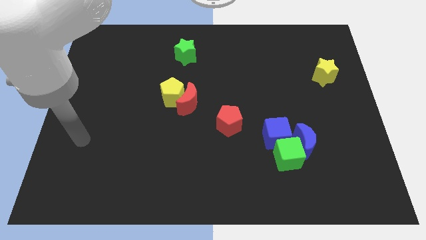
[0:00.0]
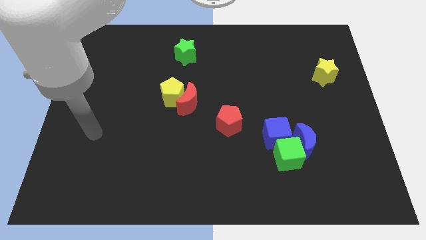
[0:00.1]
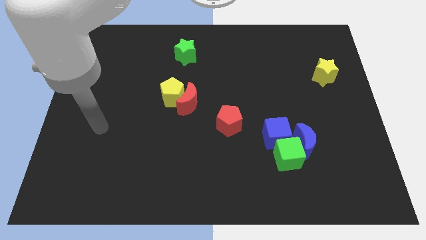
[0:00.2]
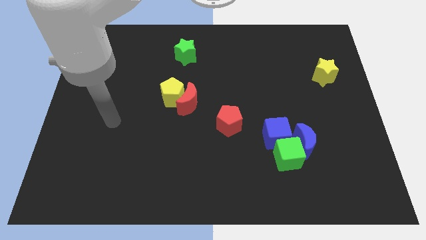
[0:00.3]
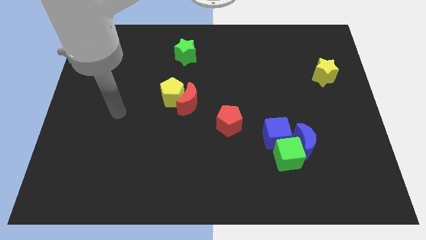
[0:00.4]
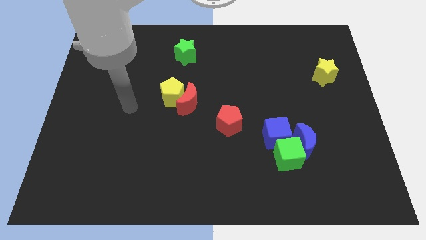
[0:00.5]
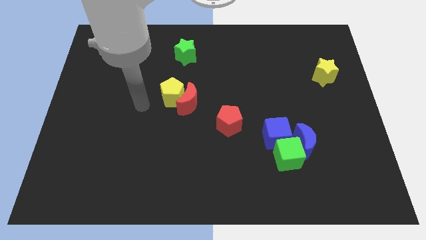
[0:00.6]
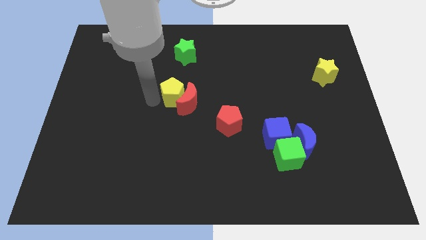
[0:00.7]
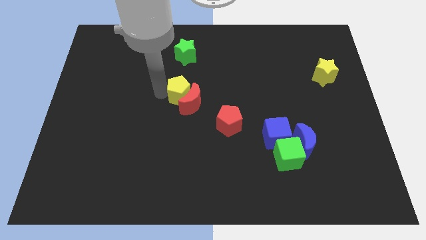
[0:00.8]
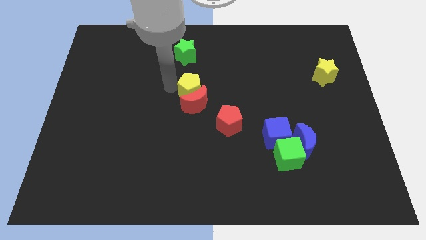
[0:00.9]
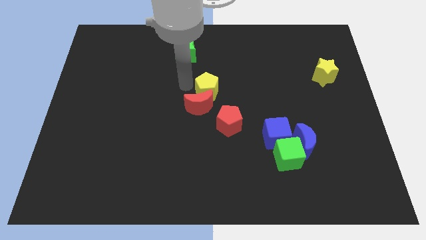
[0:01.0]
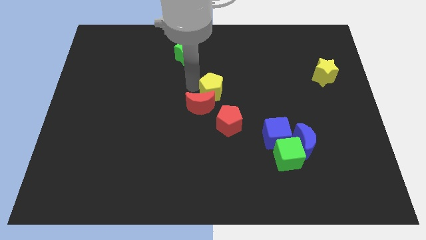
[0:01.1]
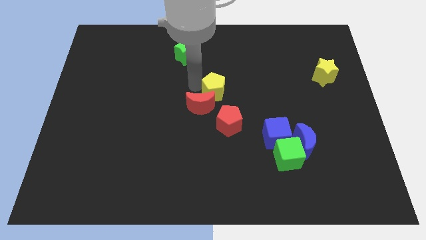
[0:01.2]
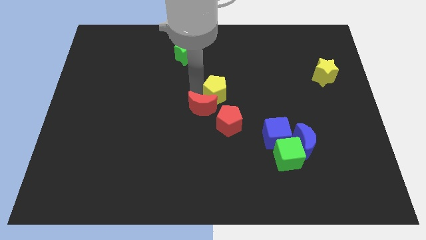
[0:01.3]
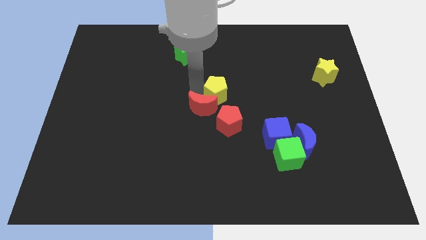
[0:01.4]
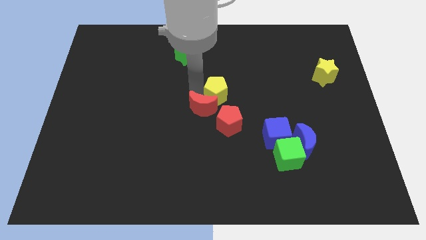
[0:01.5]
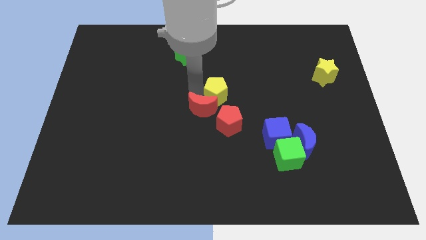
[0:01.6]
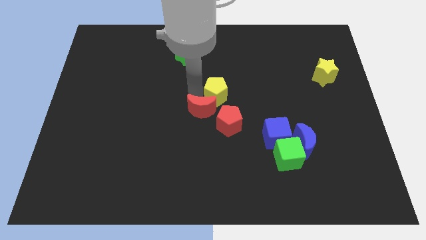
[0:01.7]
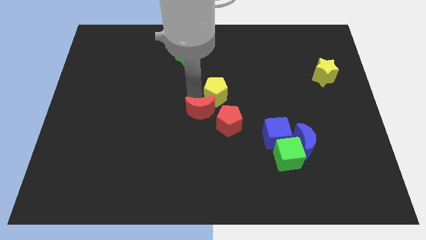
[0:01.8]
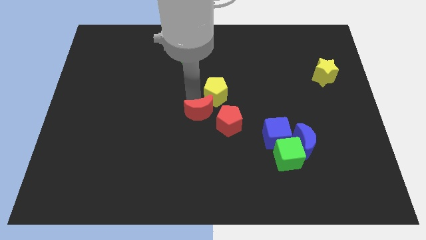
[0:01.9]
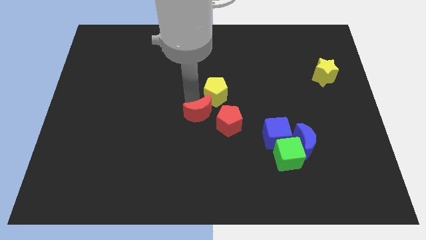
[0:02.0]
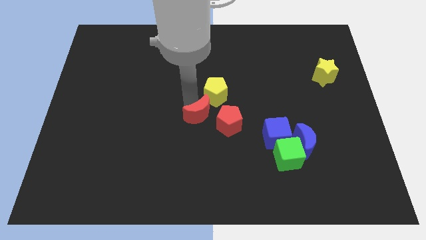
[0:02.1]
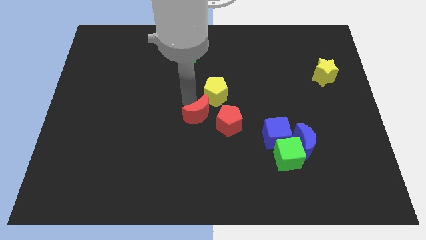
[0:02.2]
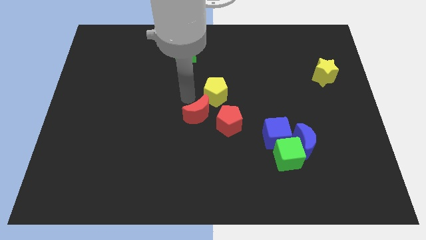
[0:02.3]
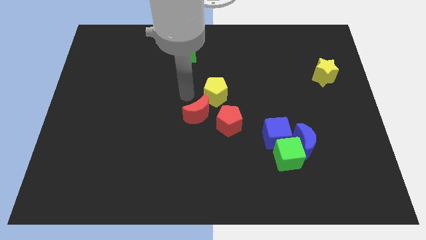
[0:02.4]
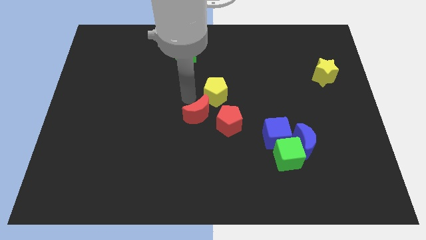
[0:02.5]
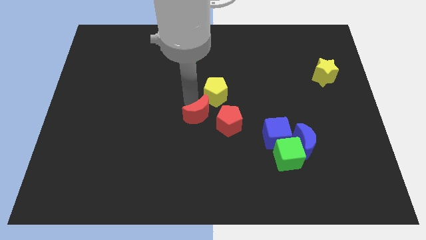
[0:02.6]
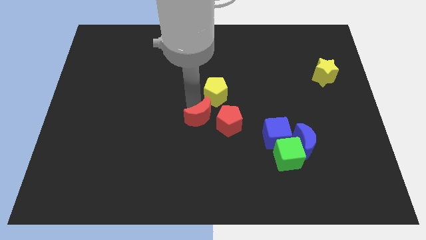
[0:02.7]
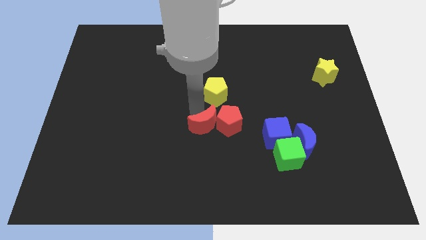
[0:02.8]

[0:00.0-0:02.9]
move the red moon somewhat diagonally down and to the right

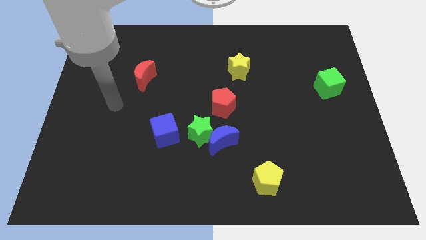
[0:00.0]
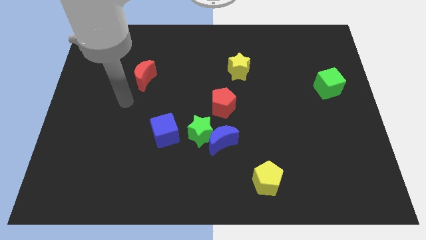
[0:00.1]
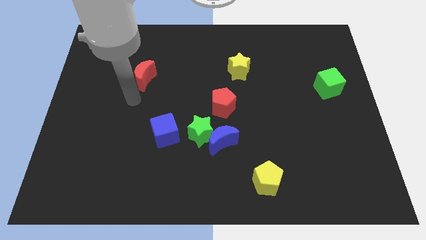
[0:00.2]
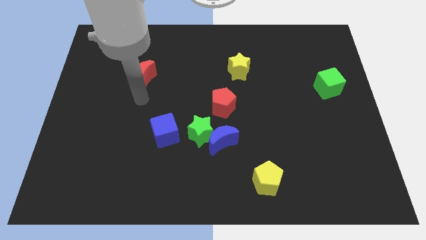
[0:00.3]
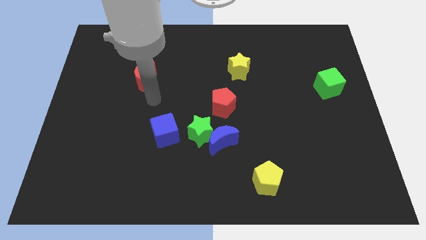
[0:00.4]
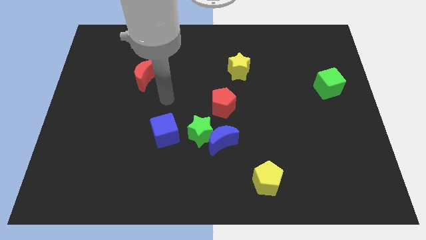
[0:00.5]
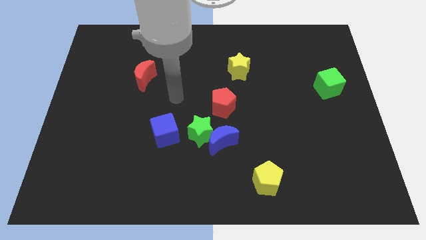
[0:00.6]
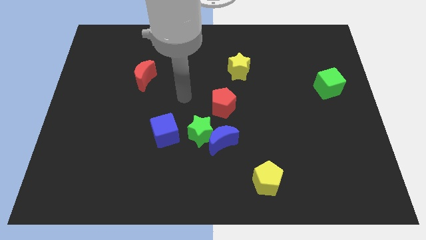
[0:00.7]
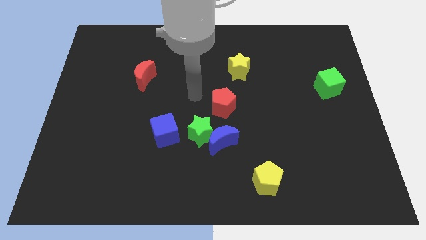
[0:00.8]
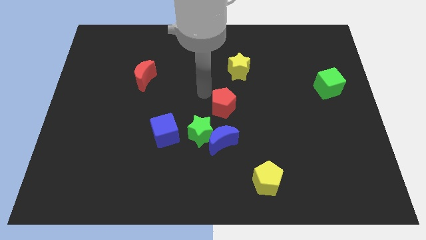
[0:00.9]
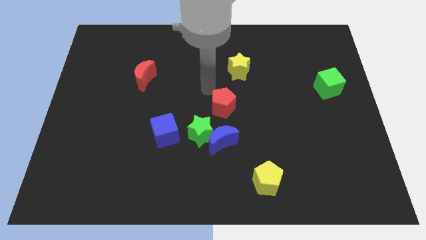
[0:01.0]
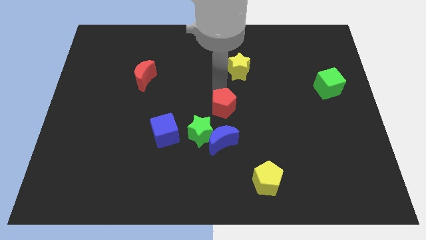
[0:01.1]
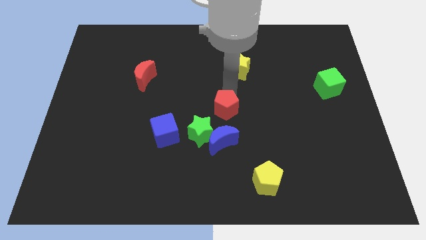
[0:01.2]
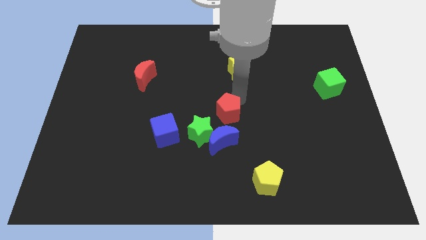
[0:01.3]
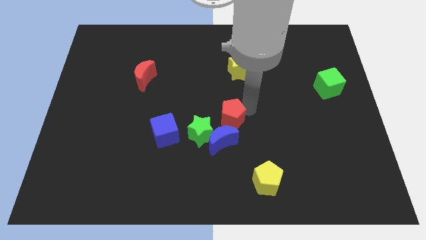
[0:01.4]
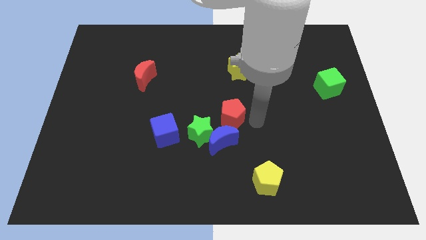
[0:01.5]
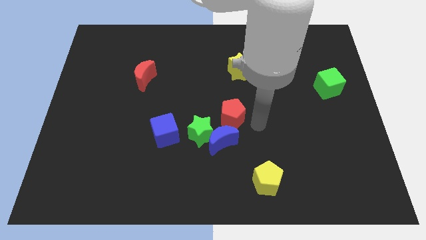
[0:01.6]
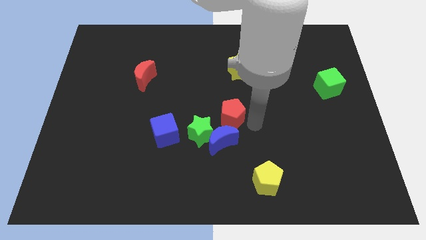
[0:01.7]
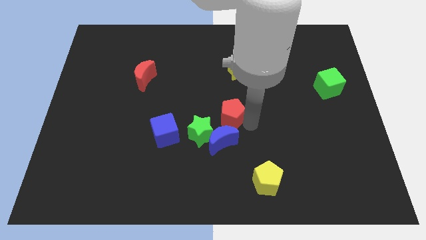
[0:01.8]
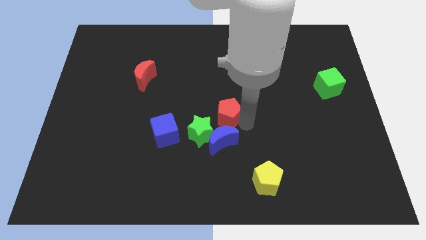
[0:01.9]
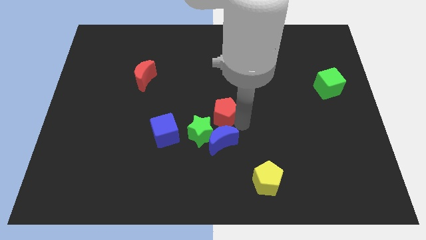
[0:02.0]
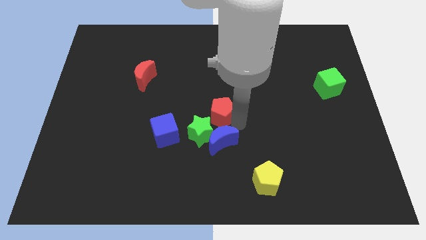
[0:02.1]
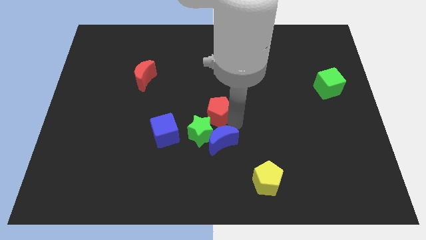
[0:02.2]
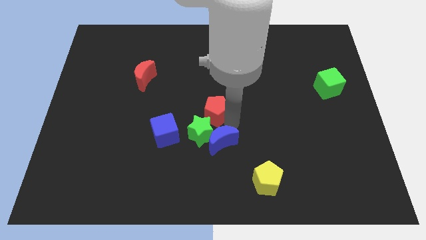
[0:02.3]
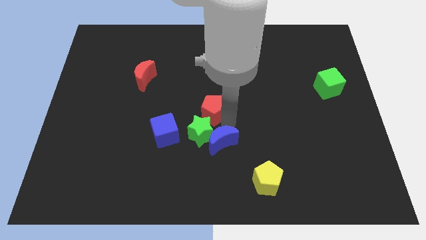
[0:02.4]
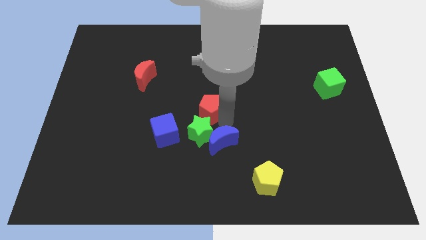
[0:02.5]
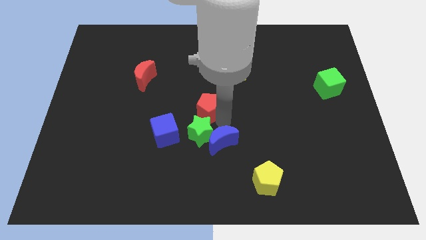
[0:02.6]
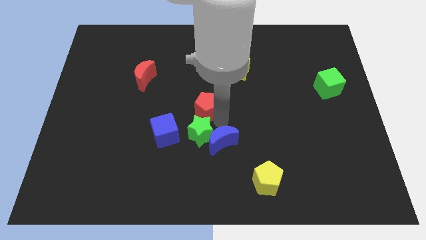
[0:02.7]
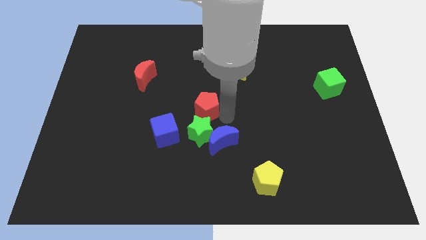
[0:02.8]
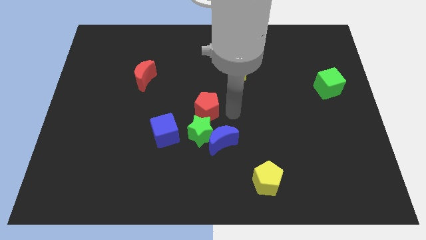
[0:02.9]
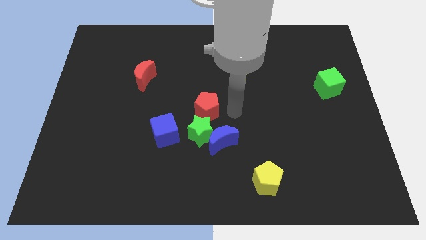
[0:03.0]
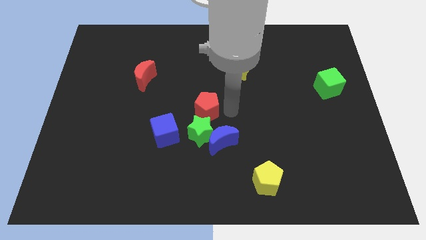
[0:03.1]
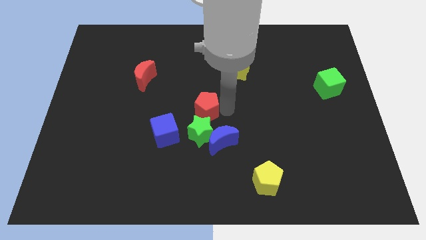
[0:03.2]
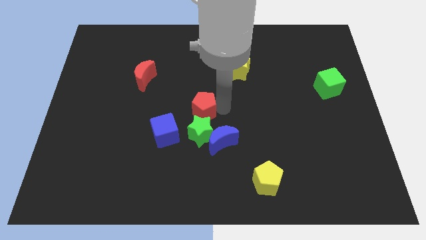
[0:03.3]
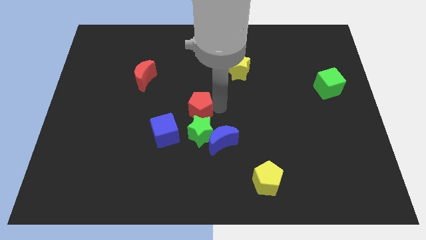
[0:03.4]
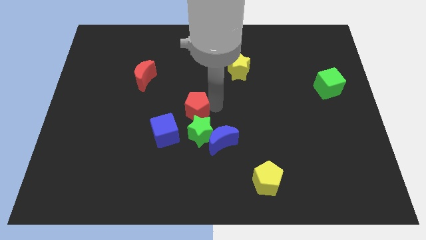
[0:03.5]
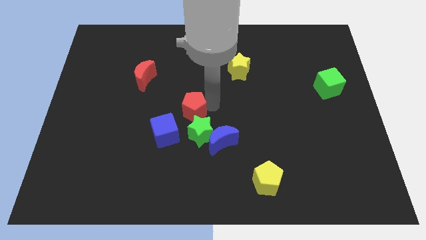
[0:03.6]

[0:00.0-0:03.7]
push the red pentagon a little to the left

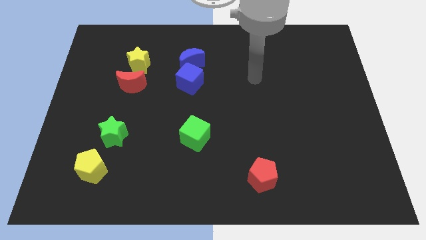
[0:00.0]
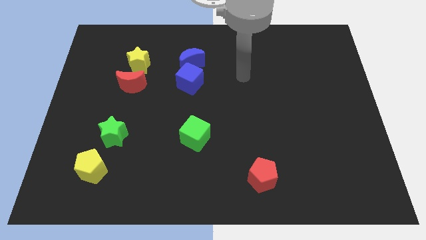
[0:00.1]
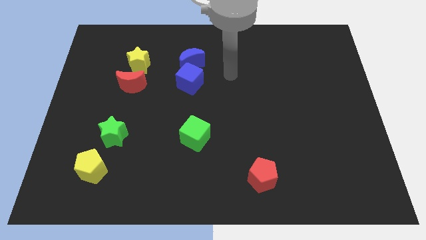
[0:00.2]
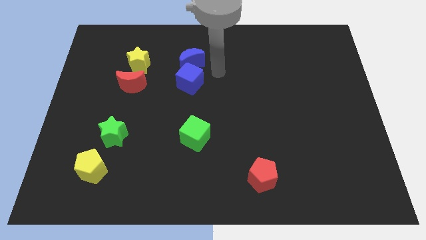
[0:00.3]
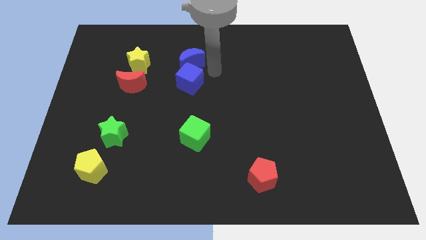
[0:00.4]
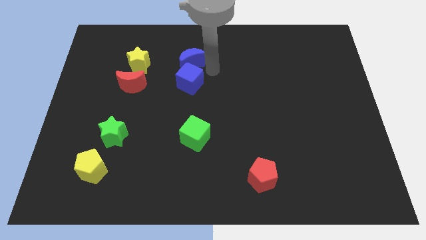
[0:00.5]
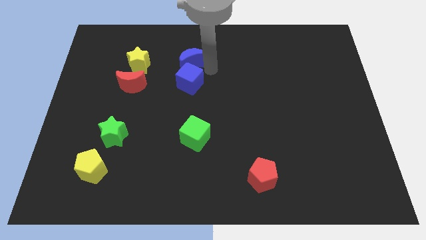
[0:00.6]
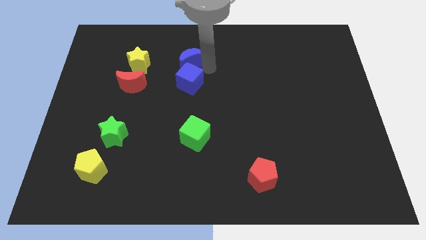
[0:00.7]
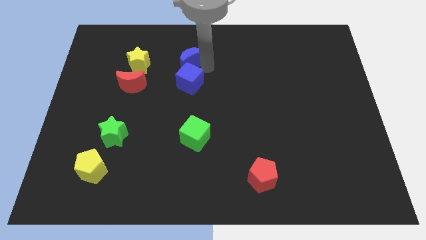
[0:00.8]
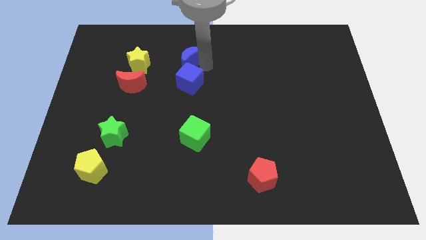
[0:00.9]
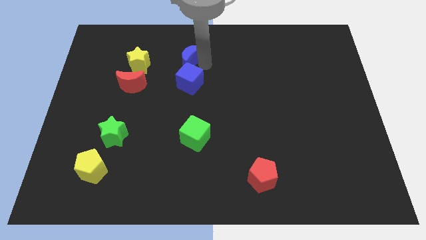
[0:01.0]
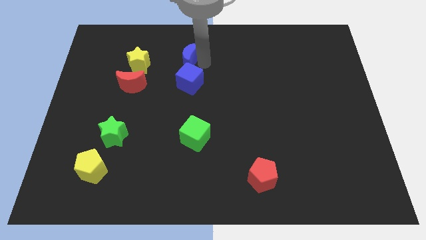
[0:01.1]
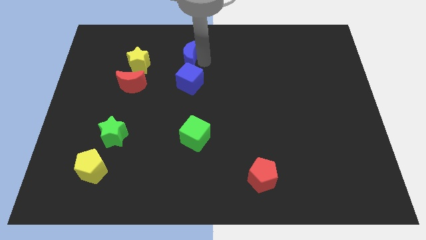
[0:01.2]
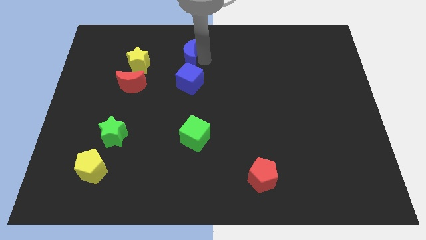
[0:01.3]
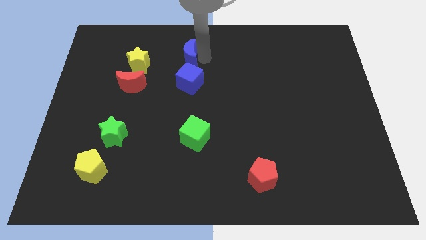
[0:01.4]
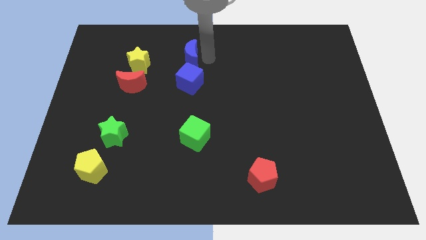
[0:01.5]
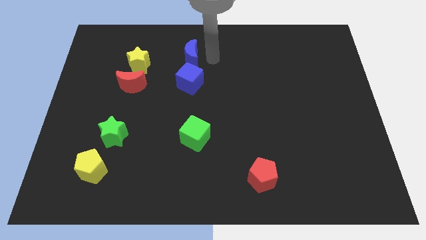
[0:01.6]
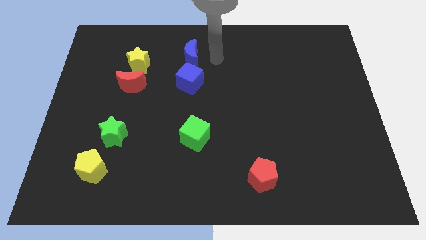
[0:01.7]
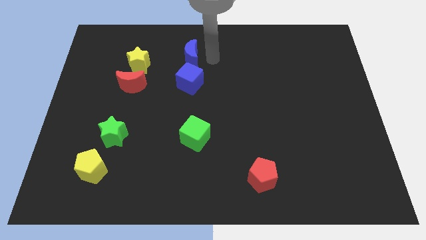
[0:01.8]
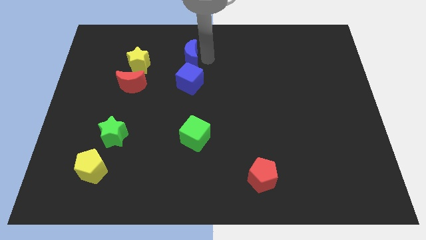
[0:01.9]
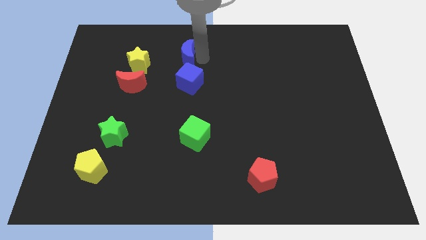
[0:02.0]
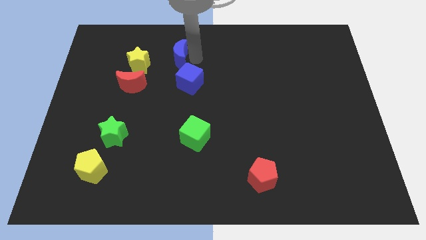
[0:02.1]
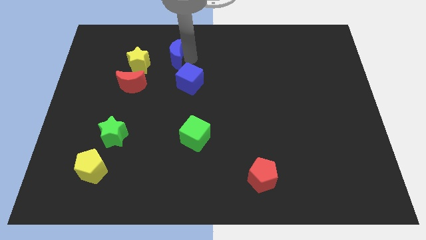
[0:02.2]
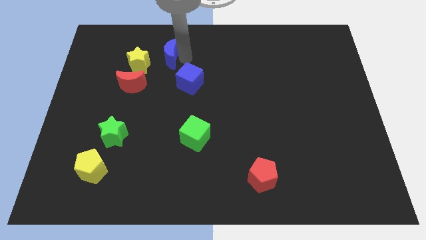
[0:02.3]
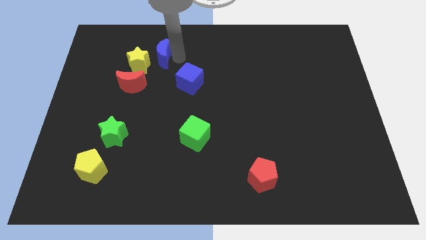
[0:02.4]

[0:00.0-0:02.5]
move the blue moon a bit to the left
